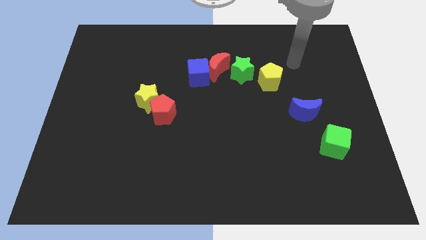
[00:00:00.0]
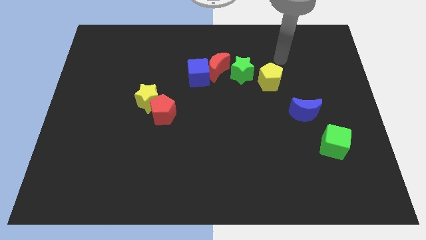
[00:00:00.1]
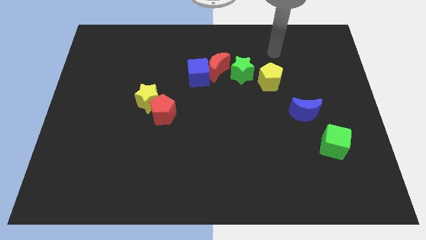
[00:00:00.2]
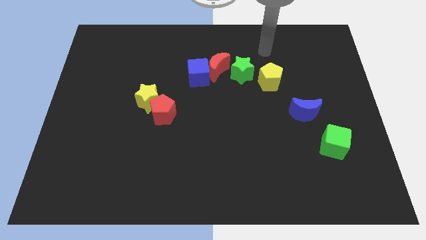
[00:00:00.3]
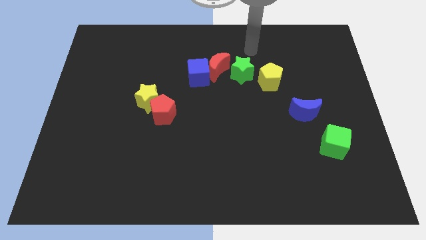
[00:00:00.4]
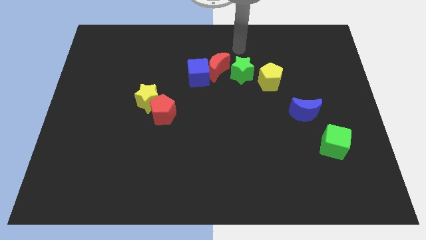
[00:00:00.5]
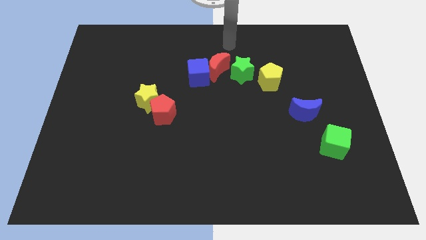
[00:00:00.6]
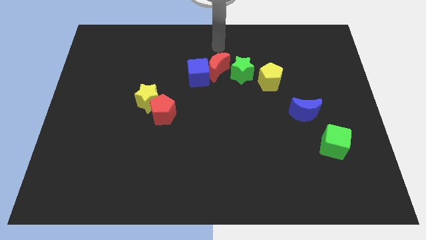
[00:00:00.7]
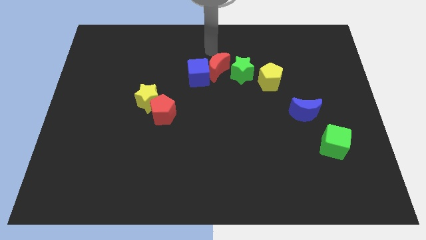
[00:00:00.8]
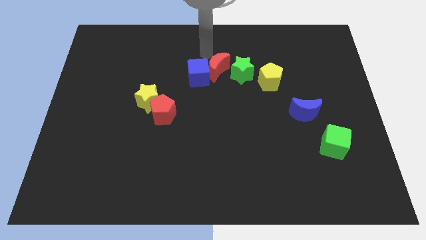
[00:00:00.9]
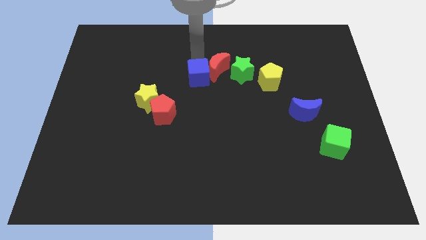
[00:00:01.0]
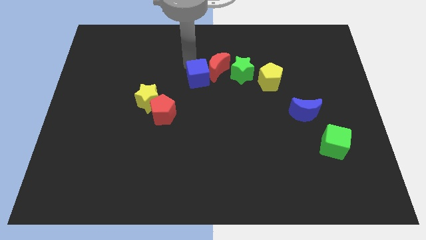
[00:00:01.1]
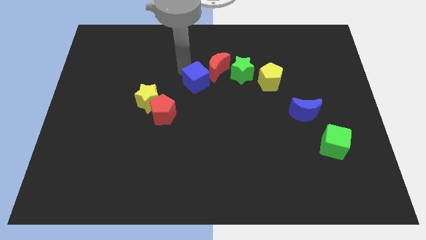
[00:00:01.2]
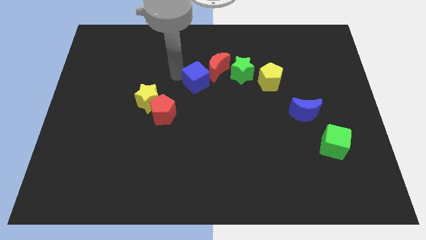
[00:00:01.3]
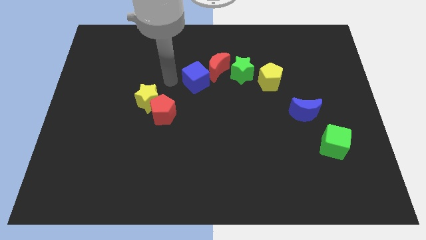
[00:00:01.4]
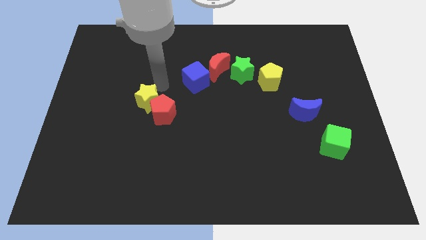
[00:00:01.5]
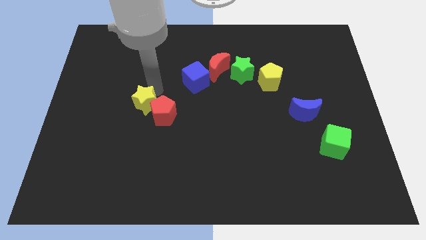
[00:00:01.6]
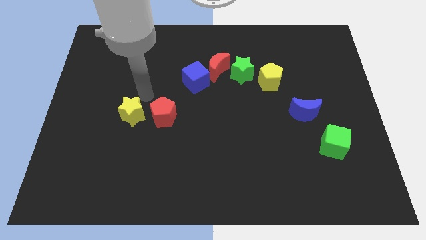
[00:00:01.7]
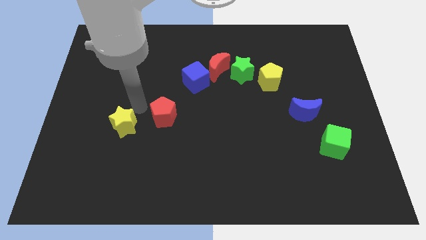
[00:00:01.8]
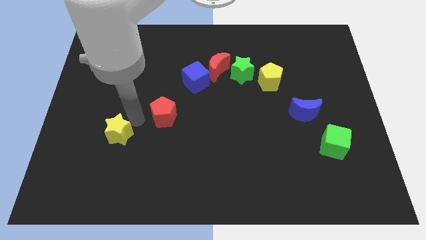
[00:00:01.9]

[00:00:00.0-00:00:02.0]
separate the red pentagon from the yellow star

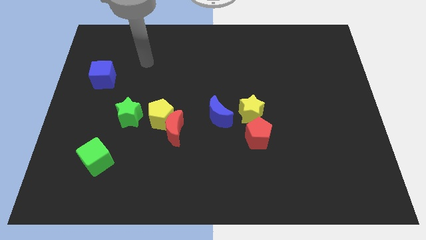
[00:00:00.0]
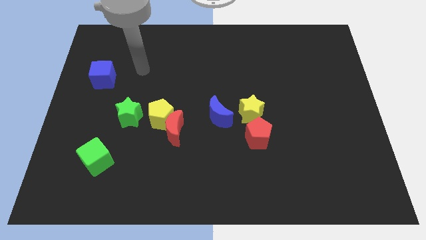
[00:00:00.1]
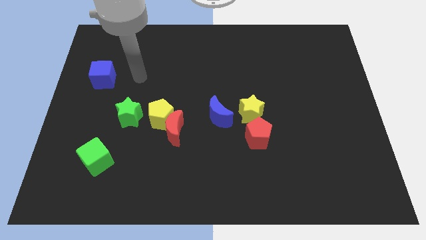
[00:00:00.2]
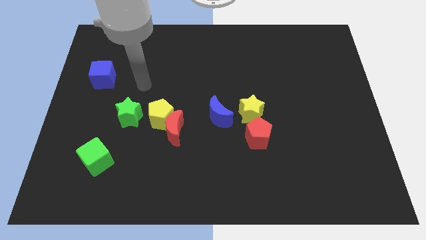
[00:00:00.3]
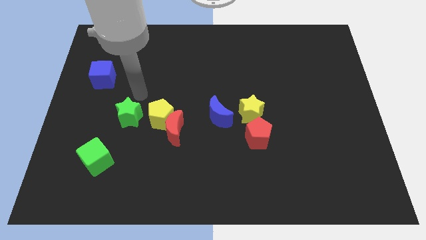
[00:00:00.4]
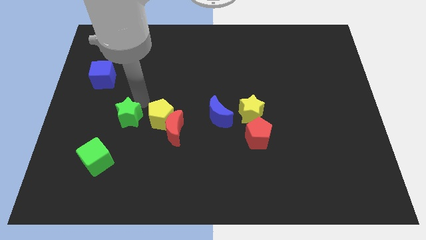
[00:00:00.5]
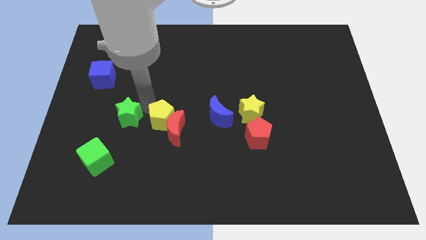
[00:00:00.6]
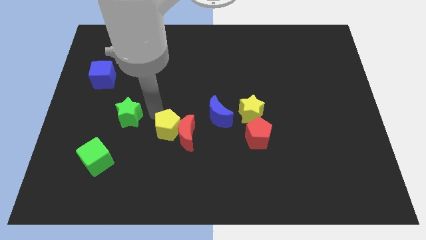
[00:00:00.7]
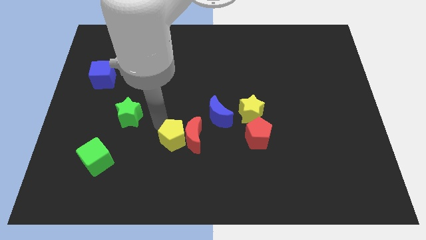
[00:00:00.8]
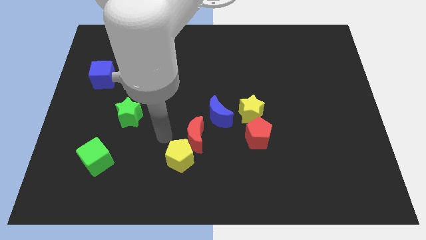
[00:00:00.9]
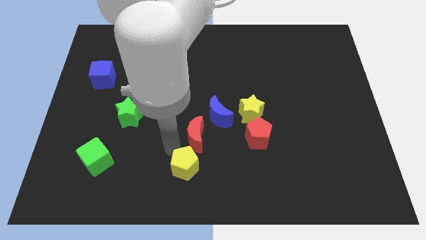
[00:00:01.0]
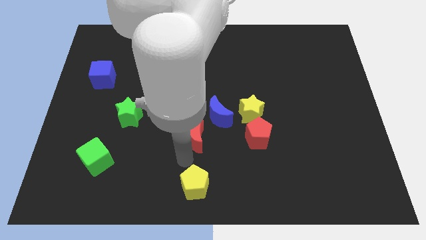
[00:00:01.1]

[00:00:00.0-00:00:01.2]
pull the red moon apart from the yellow pentagon

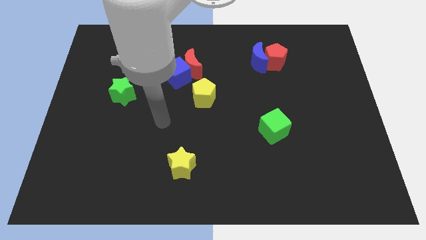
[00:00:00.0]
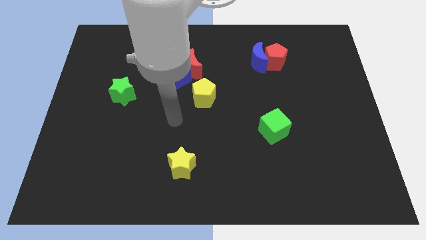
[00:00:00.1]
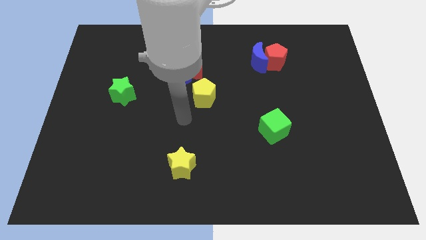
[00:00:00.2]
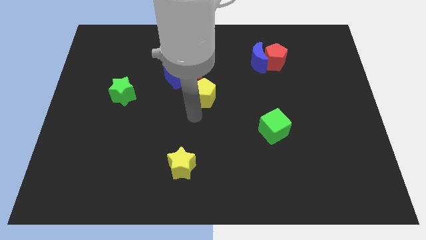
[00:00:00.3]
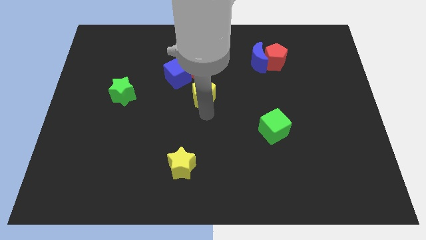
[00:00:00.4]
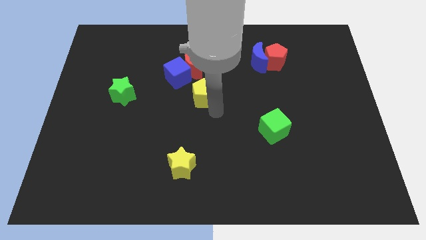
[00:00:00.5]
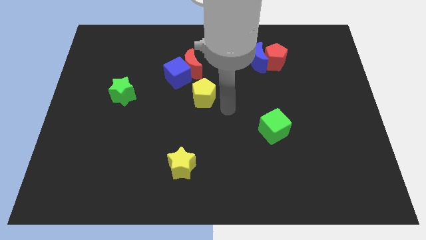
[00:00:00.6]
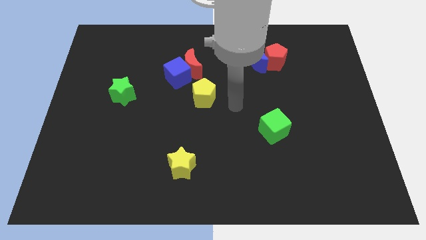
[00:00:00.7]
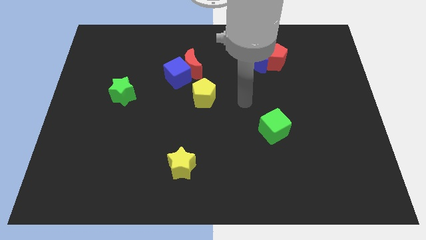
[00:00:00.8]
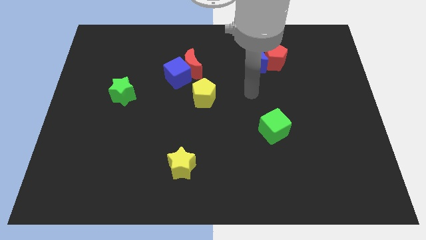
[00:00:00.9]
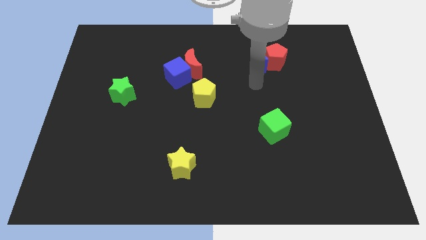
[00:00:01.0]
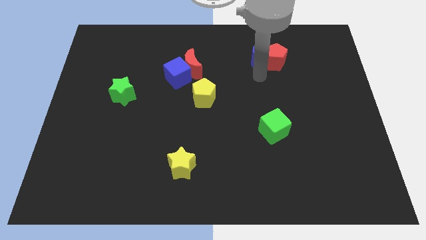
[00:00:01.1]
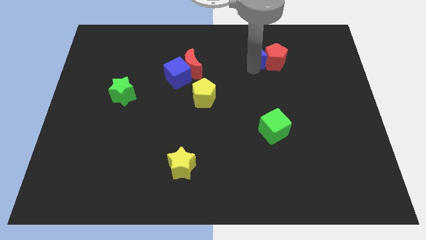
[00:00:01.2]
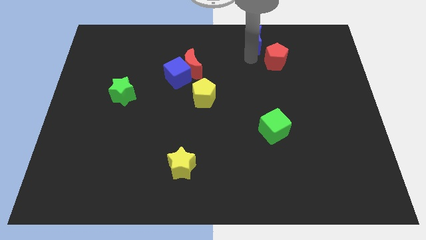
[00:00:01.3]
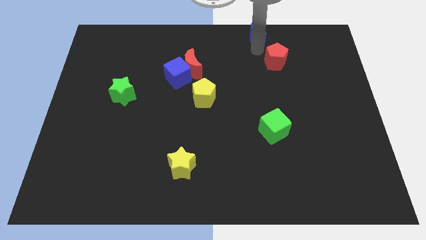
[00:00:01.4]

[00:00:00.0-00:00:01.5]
pull the red pentagon apart from the blue moon

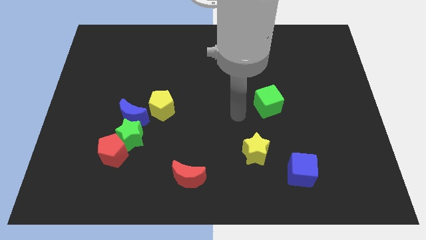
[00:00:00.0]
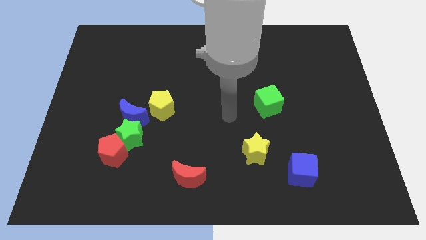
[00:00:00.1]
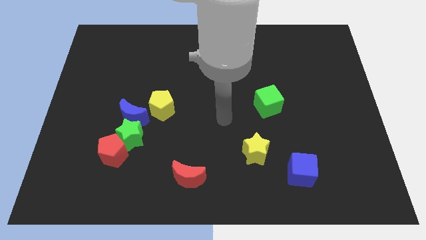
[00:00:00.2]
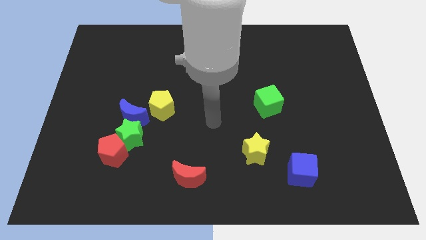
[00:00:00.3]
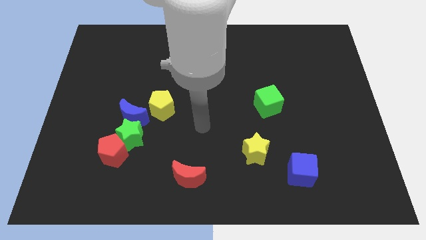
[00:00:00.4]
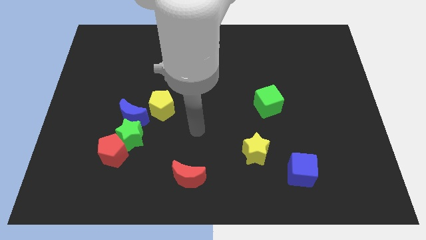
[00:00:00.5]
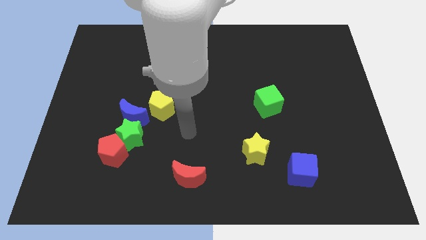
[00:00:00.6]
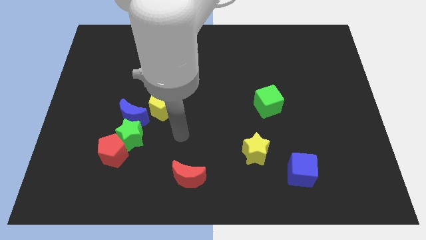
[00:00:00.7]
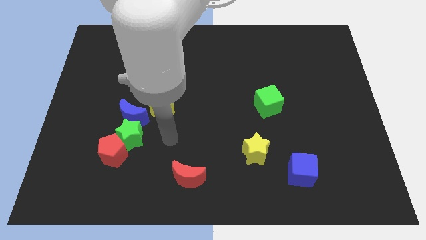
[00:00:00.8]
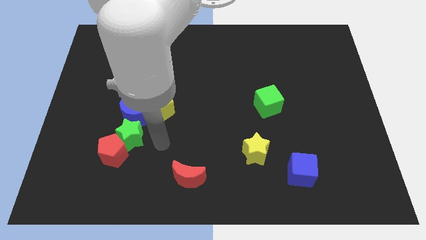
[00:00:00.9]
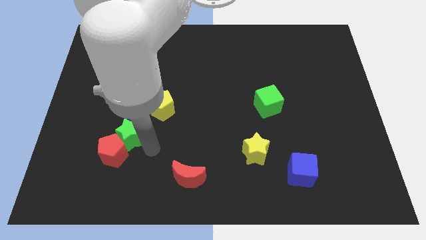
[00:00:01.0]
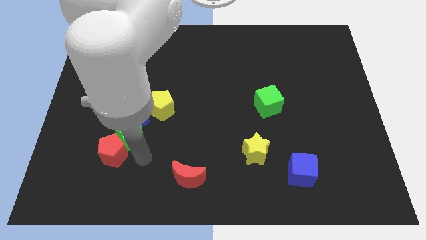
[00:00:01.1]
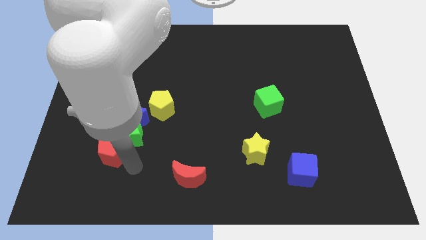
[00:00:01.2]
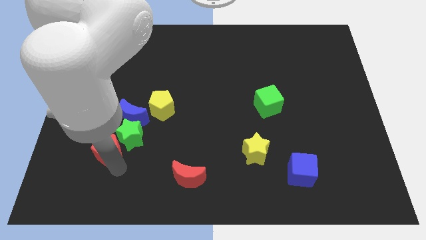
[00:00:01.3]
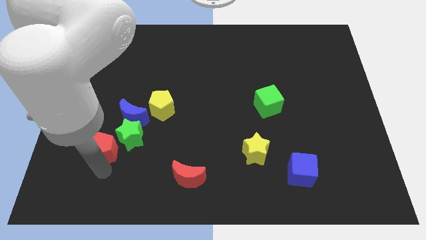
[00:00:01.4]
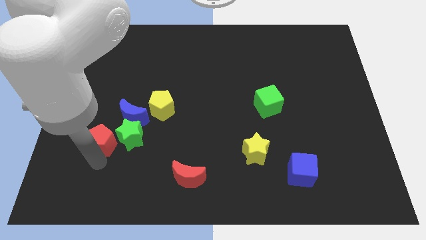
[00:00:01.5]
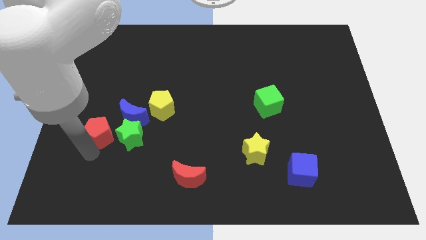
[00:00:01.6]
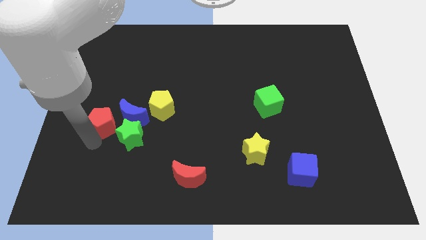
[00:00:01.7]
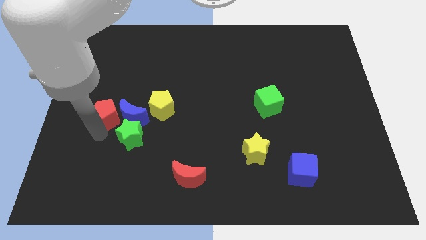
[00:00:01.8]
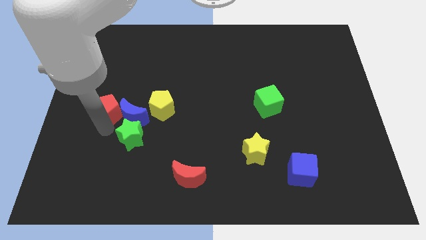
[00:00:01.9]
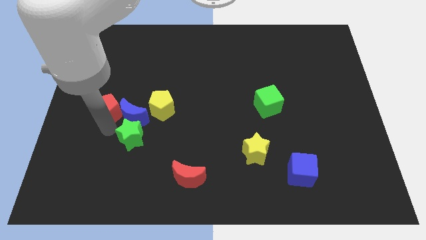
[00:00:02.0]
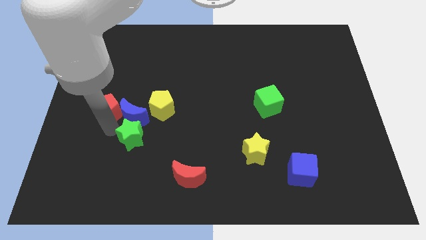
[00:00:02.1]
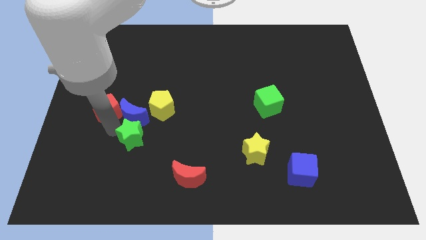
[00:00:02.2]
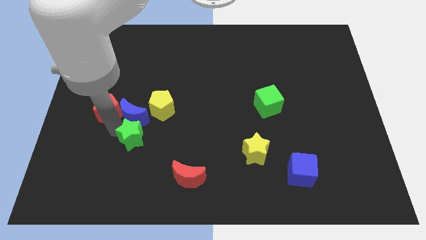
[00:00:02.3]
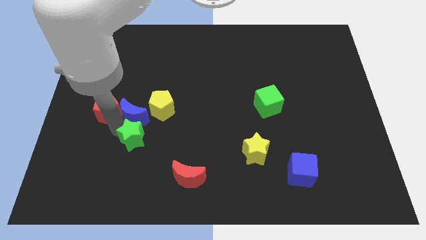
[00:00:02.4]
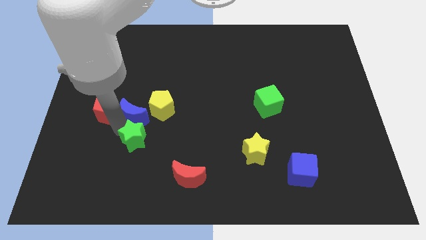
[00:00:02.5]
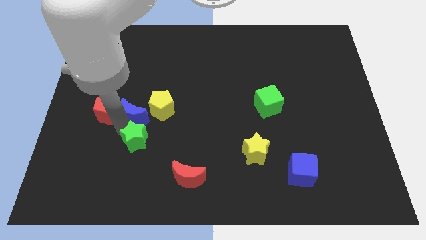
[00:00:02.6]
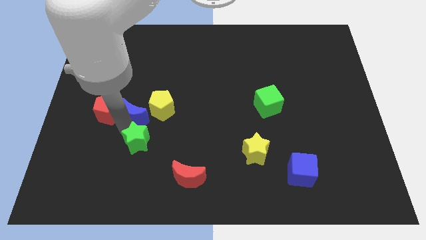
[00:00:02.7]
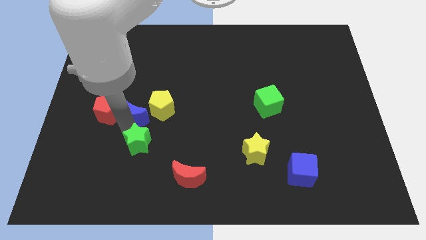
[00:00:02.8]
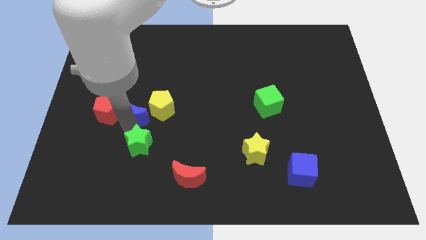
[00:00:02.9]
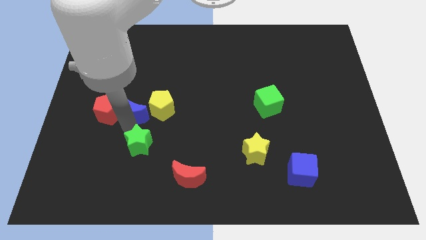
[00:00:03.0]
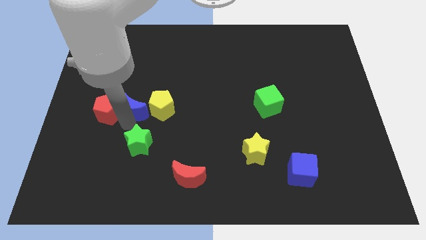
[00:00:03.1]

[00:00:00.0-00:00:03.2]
pull the green star apart from the red pentagon and blue moon

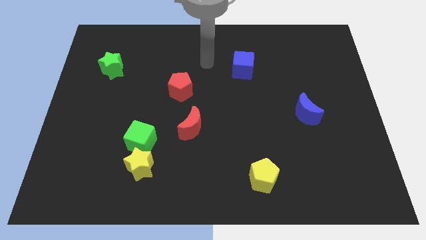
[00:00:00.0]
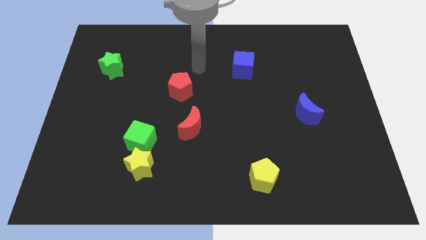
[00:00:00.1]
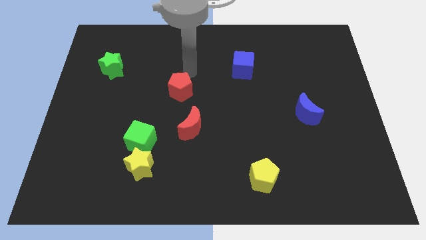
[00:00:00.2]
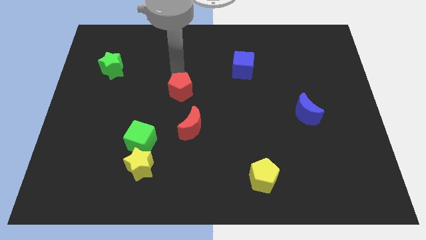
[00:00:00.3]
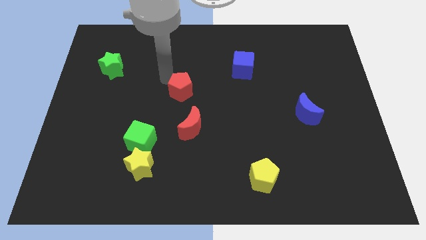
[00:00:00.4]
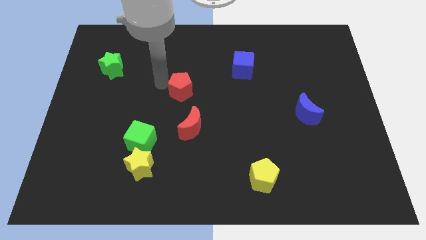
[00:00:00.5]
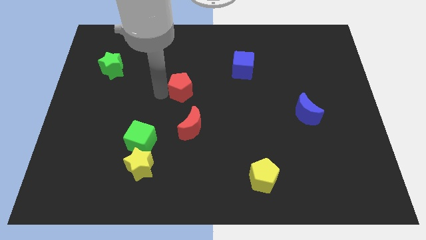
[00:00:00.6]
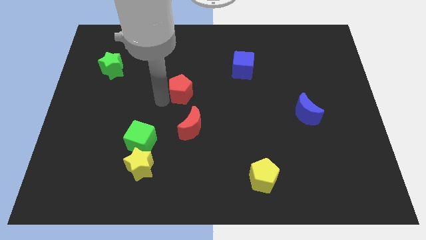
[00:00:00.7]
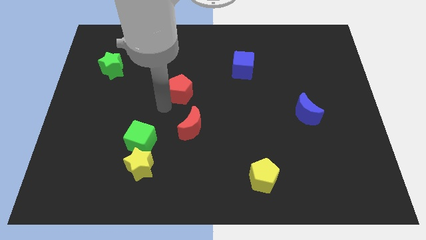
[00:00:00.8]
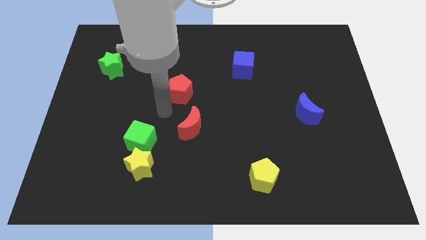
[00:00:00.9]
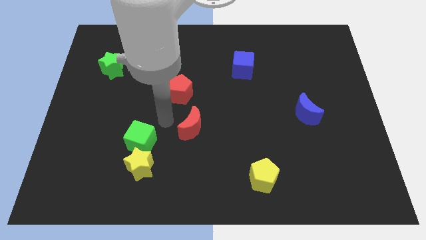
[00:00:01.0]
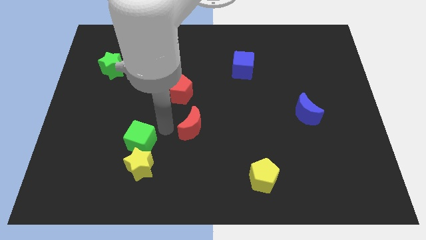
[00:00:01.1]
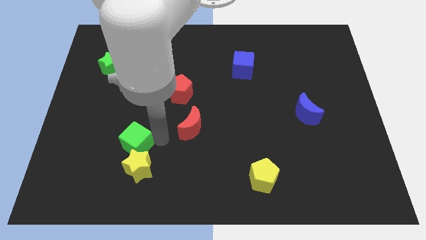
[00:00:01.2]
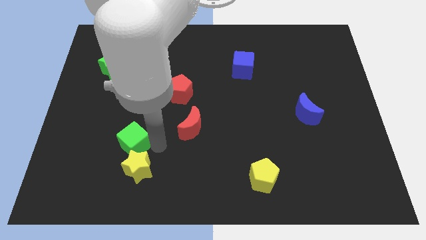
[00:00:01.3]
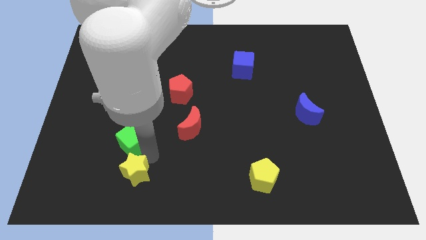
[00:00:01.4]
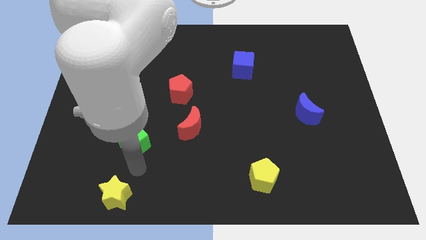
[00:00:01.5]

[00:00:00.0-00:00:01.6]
pull the green cube apart from the yellow star
